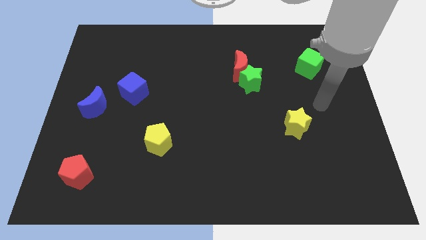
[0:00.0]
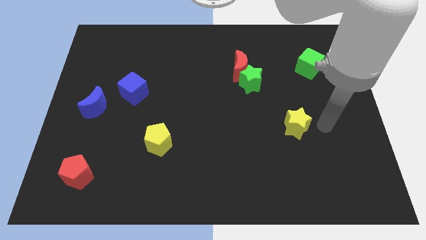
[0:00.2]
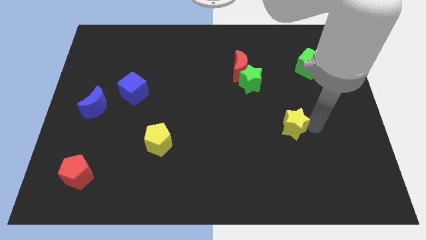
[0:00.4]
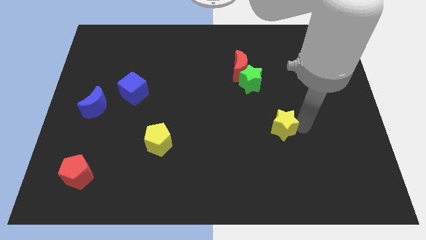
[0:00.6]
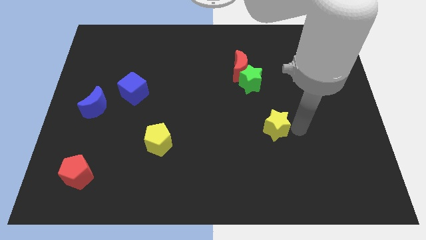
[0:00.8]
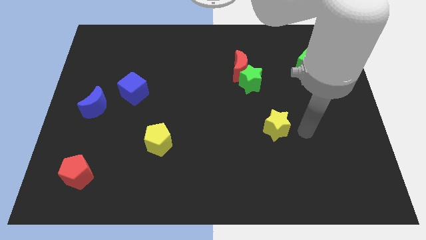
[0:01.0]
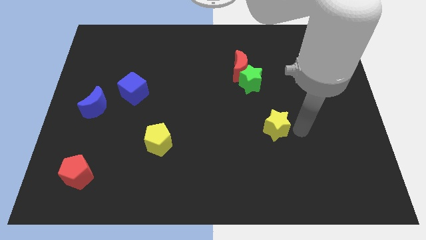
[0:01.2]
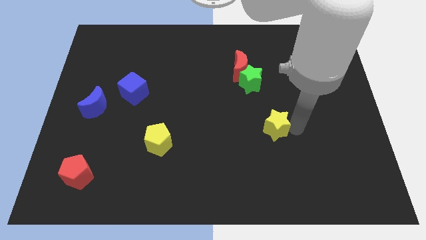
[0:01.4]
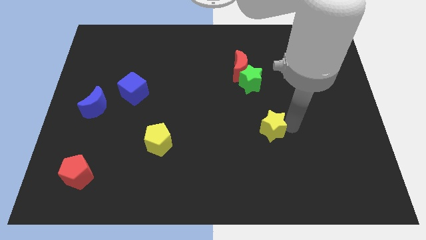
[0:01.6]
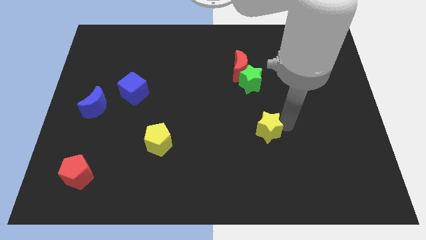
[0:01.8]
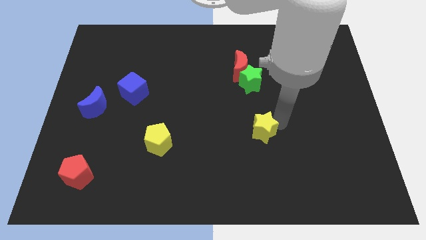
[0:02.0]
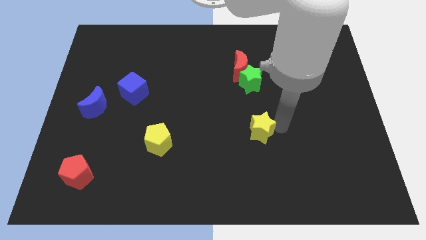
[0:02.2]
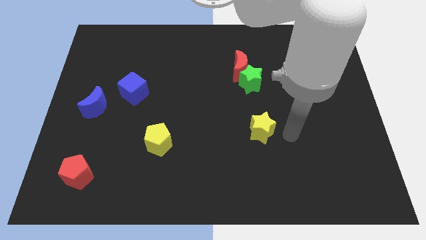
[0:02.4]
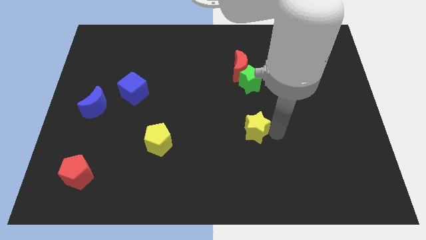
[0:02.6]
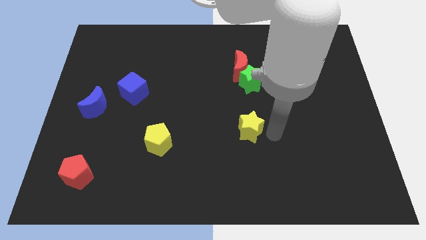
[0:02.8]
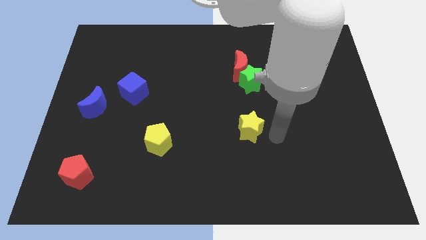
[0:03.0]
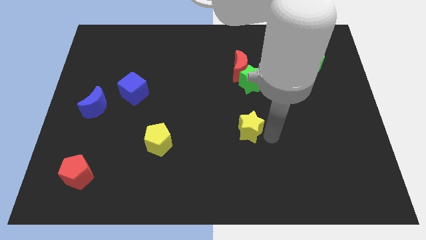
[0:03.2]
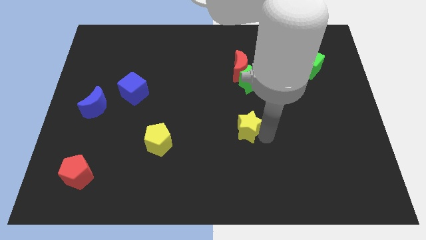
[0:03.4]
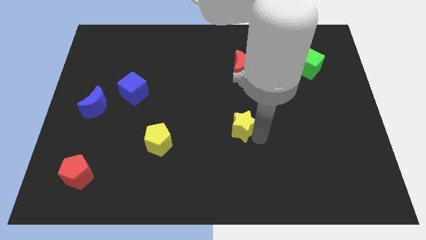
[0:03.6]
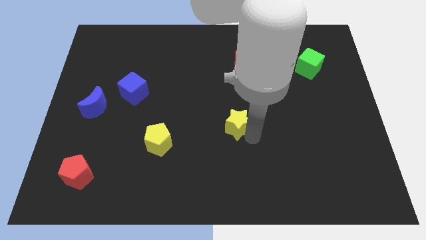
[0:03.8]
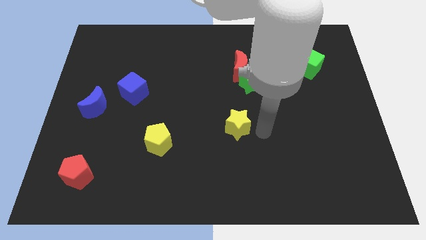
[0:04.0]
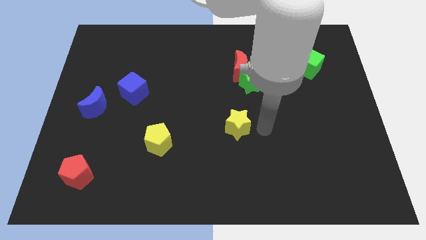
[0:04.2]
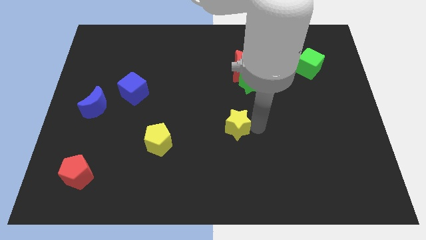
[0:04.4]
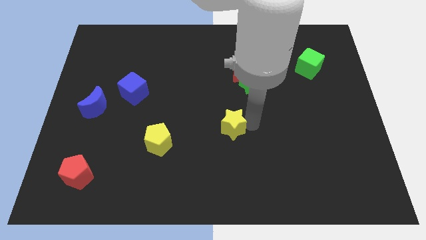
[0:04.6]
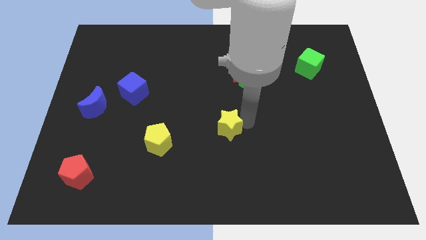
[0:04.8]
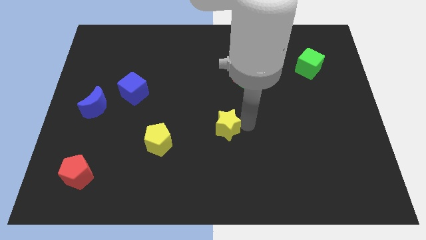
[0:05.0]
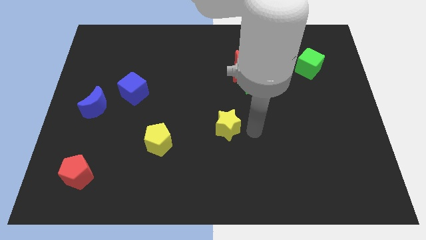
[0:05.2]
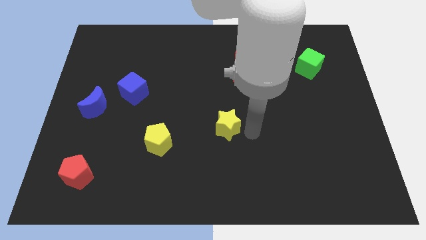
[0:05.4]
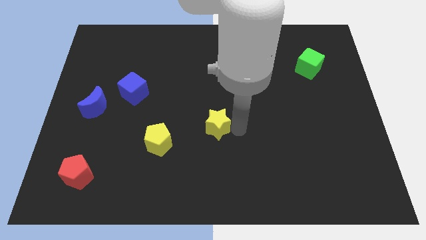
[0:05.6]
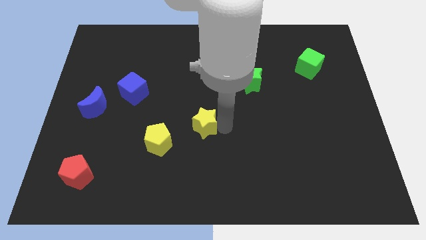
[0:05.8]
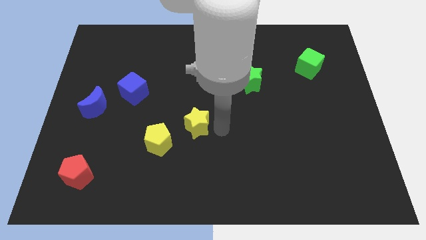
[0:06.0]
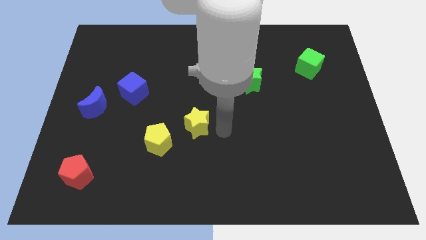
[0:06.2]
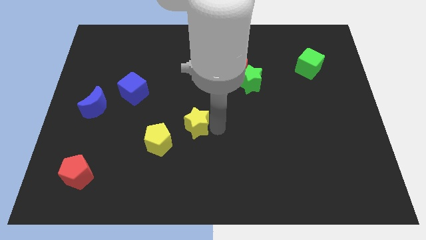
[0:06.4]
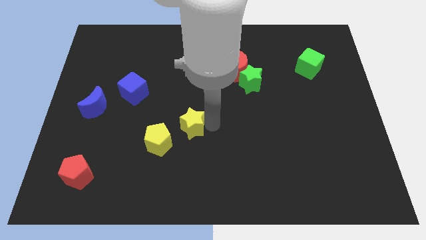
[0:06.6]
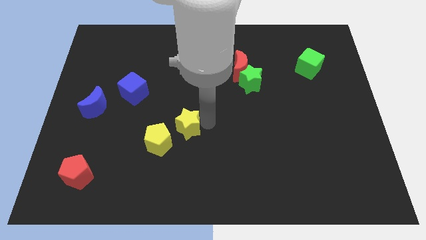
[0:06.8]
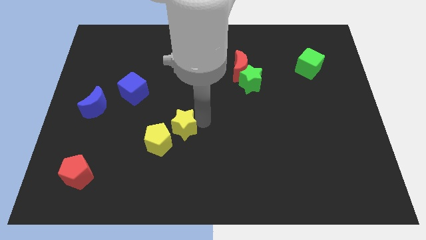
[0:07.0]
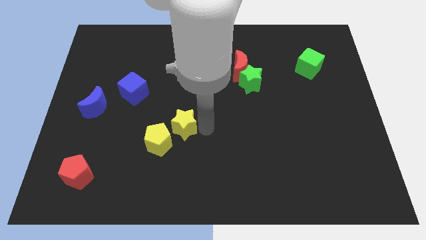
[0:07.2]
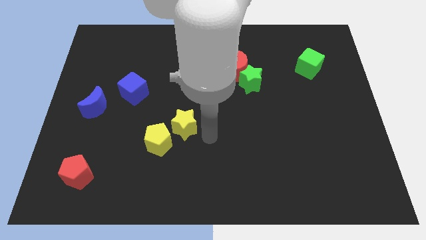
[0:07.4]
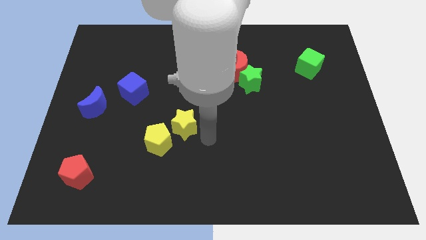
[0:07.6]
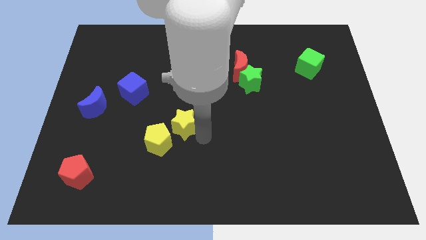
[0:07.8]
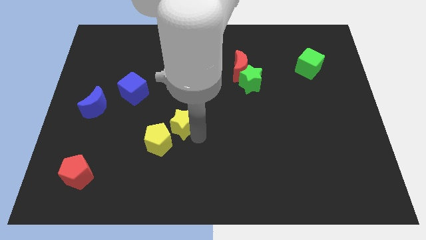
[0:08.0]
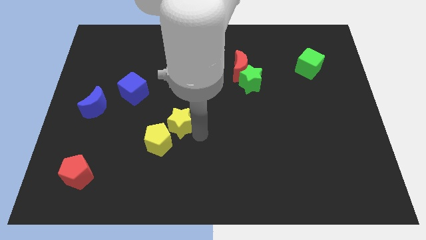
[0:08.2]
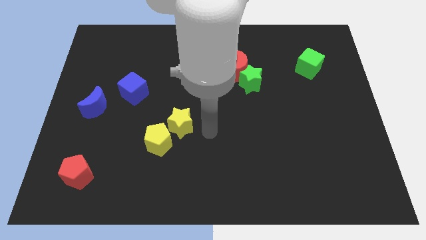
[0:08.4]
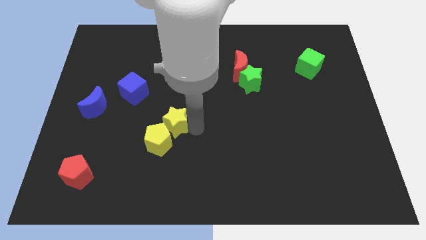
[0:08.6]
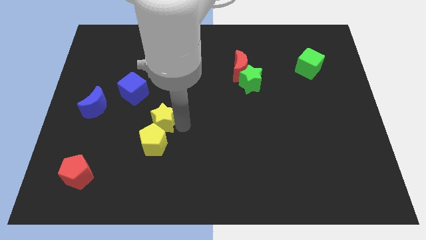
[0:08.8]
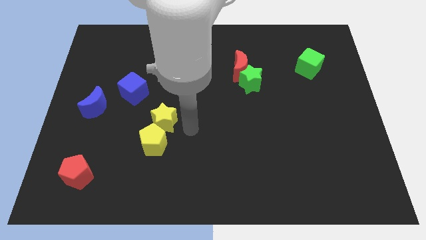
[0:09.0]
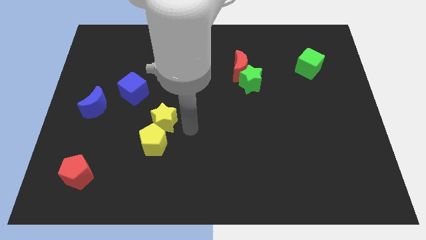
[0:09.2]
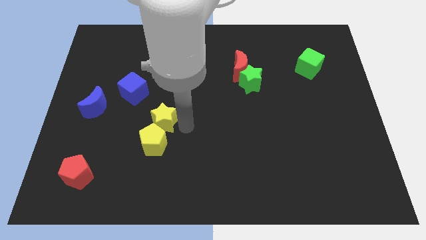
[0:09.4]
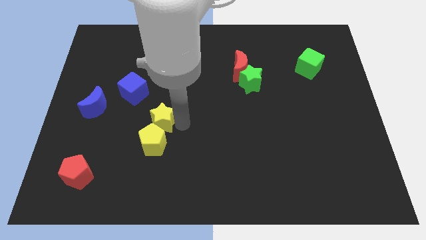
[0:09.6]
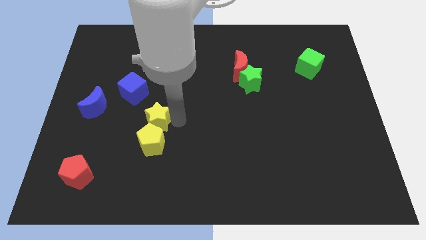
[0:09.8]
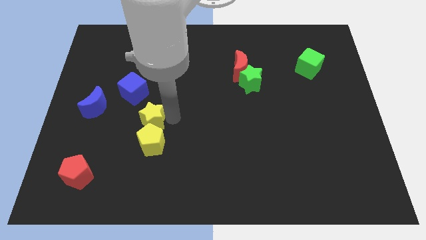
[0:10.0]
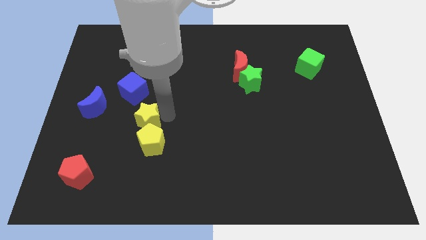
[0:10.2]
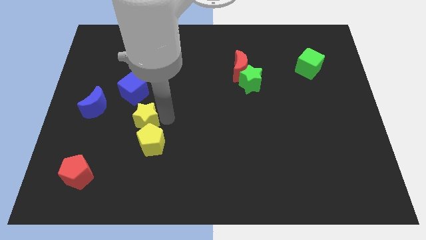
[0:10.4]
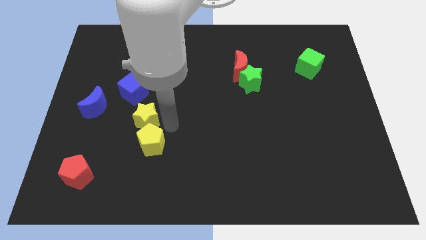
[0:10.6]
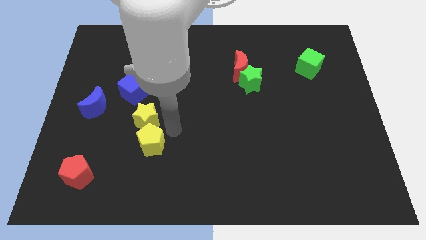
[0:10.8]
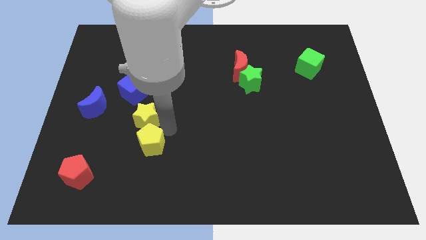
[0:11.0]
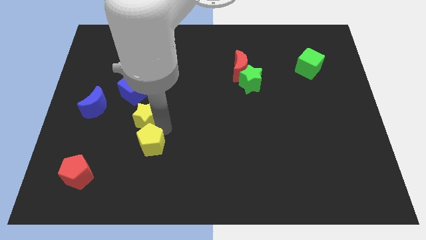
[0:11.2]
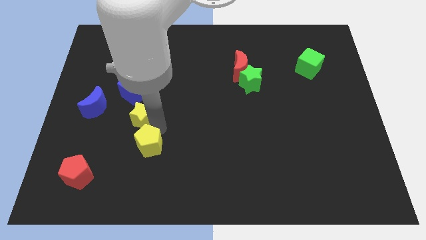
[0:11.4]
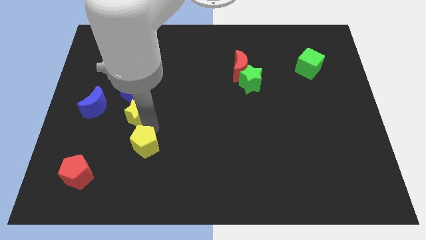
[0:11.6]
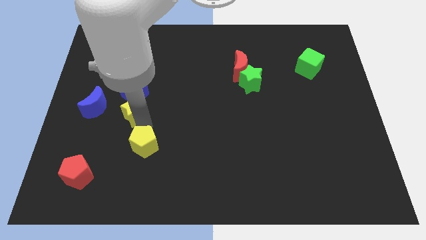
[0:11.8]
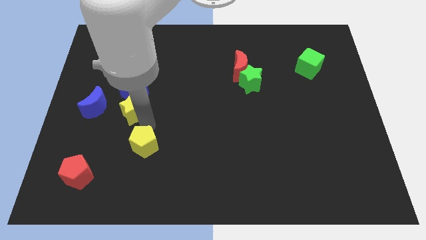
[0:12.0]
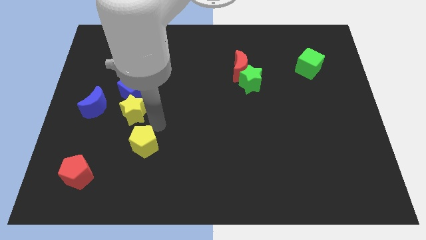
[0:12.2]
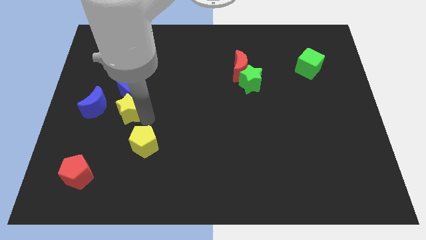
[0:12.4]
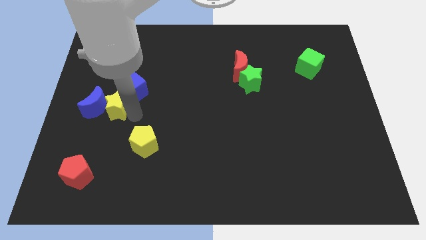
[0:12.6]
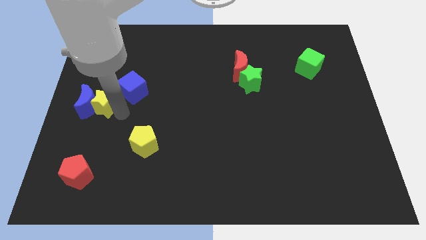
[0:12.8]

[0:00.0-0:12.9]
put the yellow star to the center left

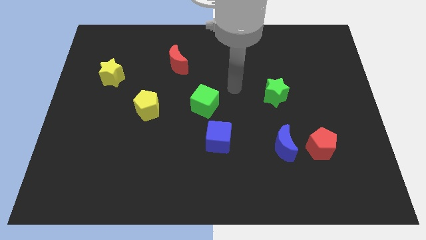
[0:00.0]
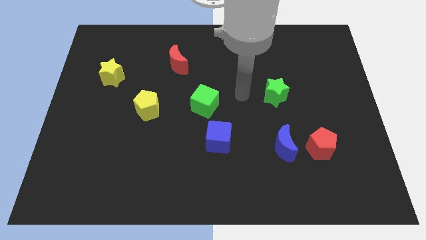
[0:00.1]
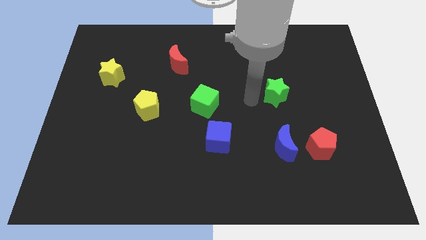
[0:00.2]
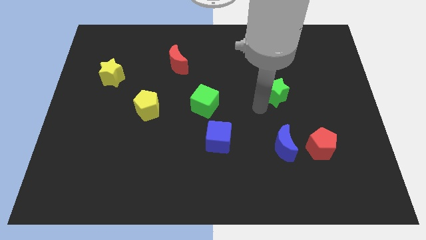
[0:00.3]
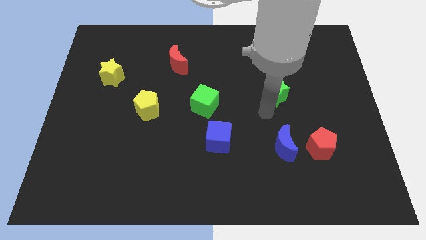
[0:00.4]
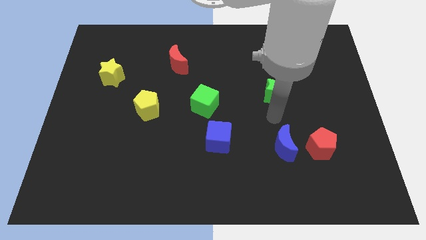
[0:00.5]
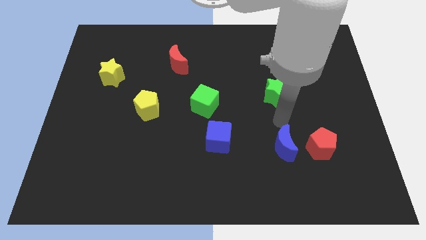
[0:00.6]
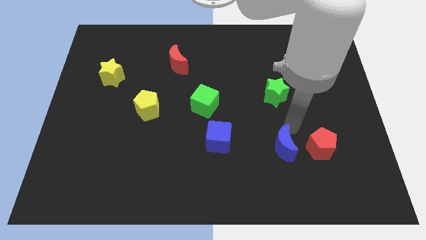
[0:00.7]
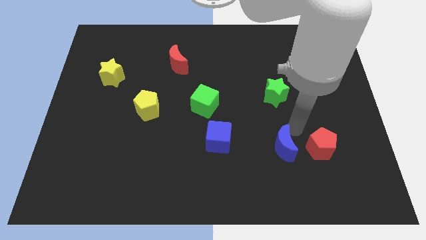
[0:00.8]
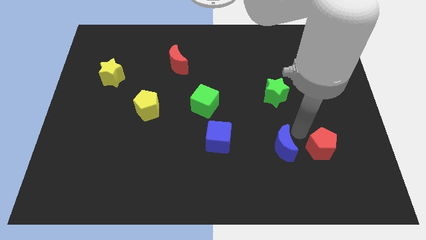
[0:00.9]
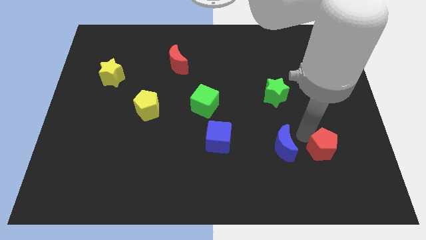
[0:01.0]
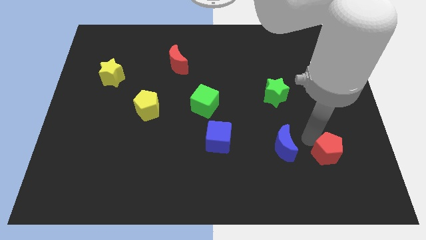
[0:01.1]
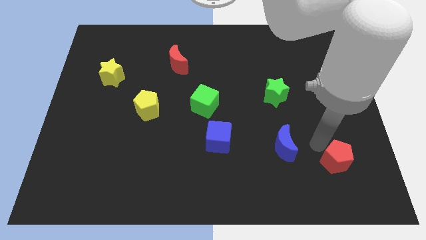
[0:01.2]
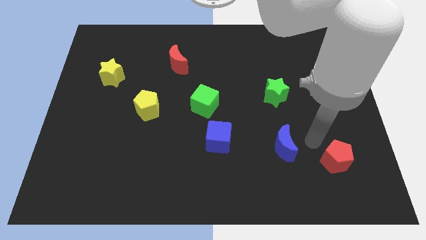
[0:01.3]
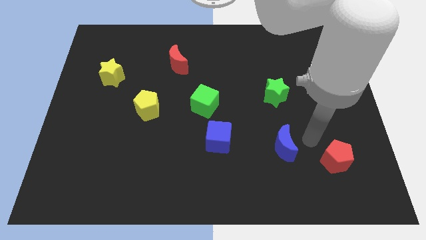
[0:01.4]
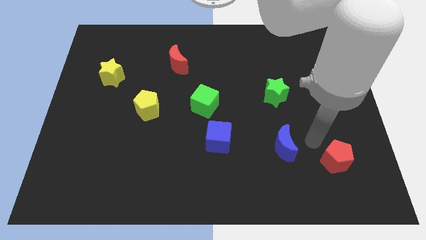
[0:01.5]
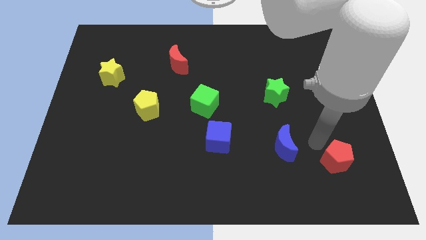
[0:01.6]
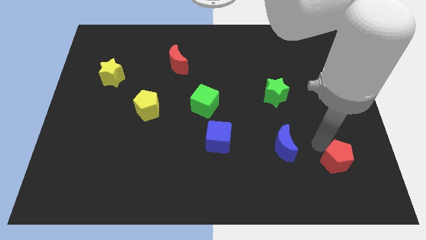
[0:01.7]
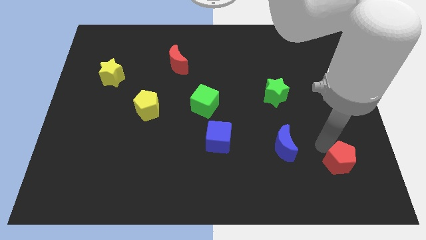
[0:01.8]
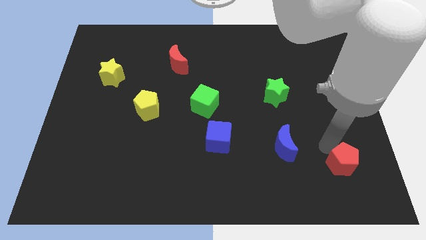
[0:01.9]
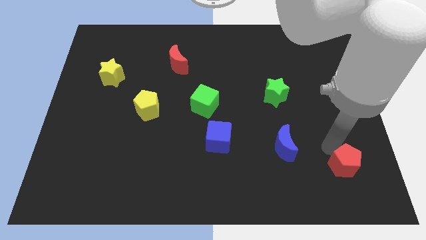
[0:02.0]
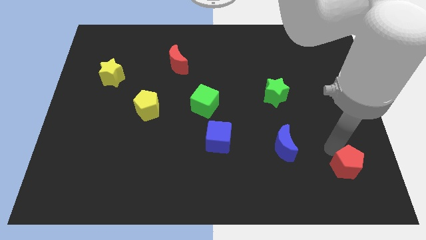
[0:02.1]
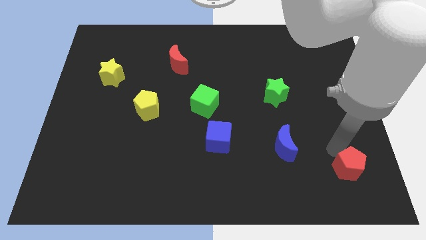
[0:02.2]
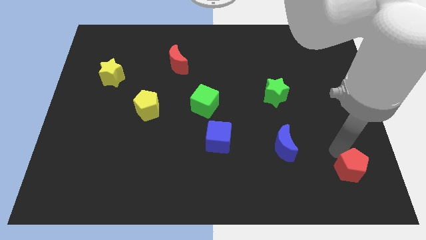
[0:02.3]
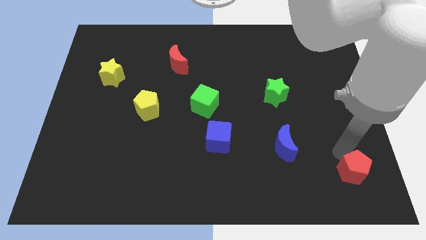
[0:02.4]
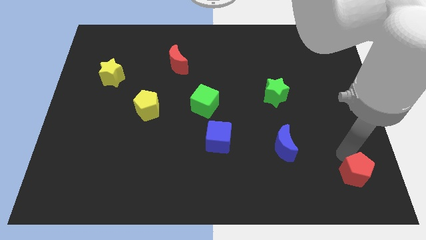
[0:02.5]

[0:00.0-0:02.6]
move the red pentagon to the lower right corner
